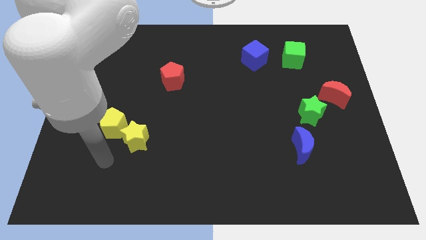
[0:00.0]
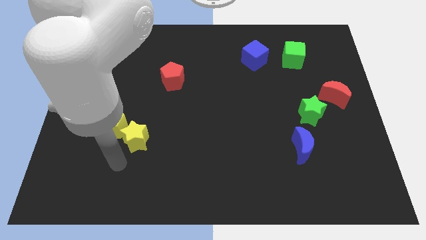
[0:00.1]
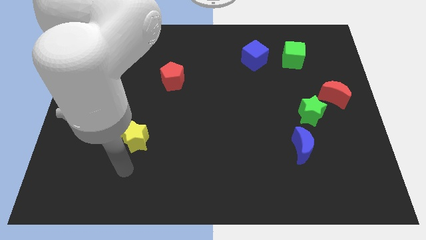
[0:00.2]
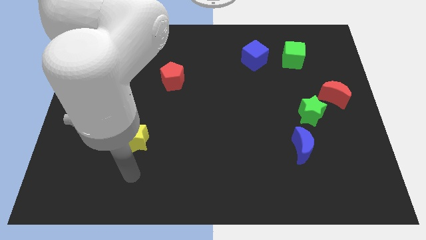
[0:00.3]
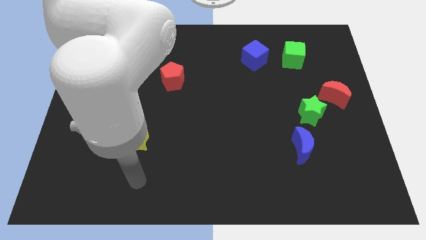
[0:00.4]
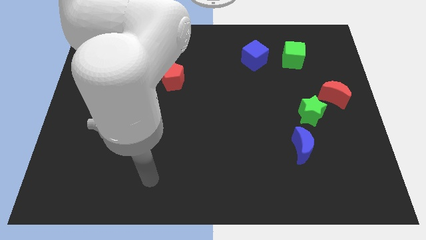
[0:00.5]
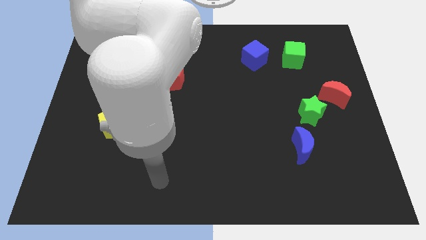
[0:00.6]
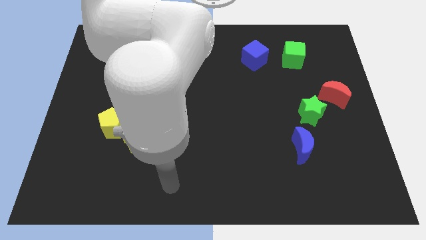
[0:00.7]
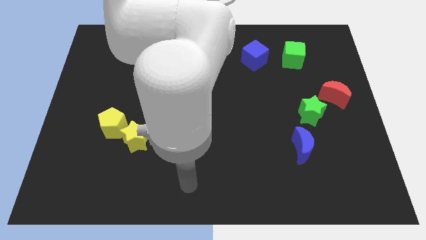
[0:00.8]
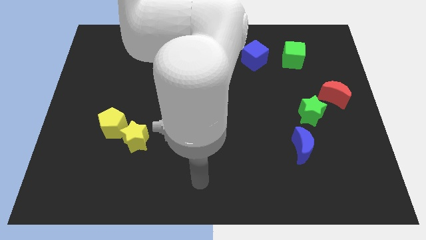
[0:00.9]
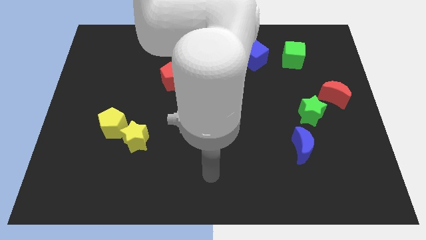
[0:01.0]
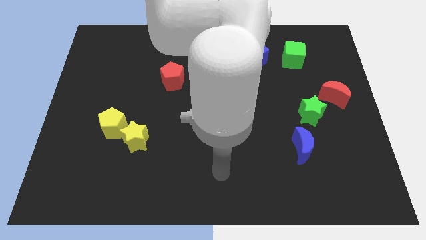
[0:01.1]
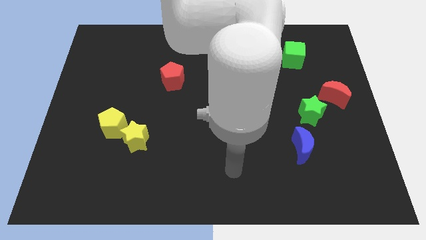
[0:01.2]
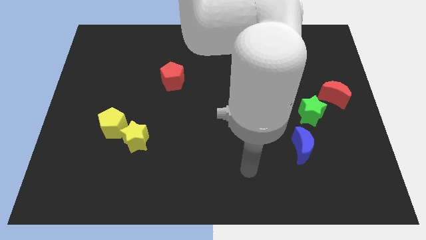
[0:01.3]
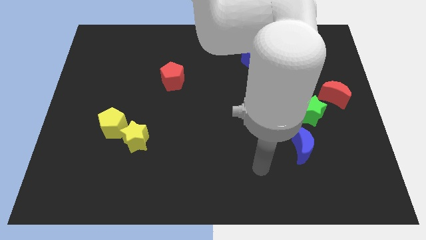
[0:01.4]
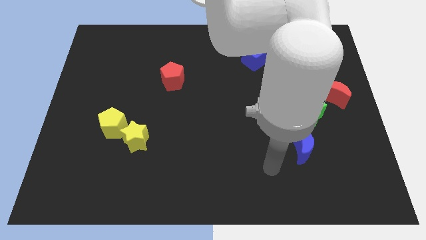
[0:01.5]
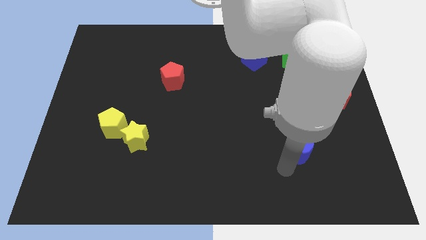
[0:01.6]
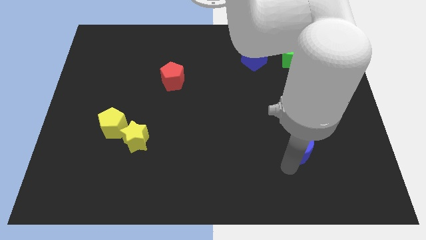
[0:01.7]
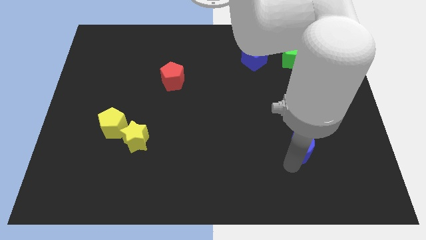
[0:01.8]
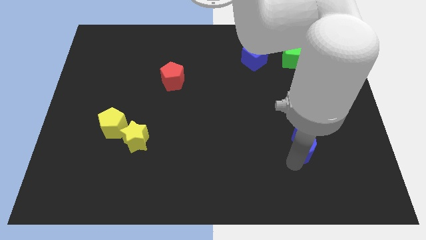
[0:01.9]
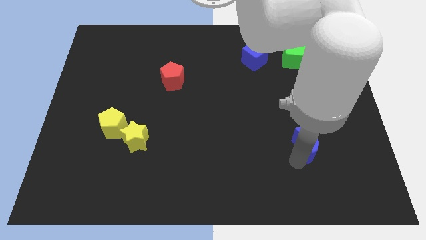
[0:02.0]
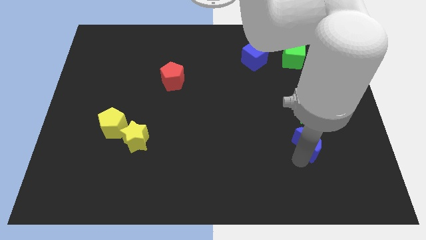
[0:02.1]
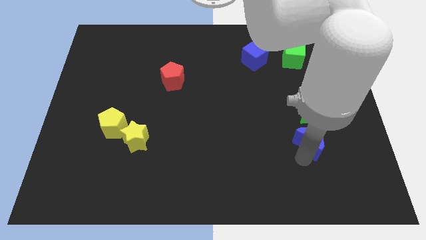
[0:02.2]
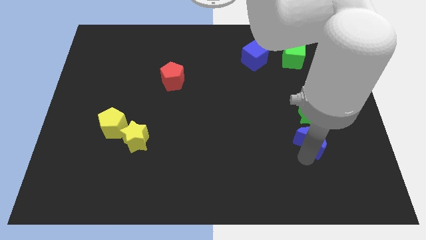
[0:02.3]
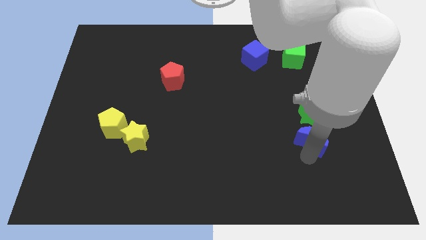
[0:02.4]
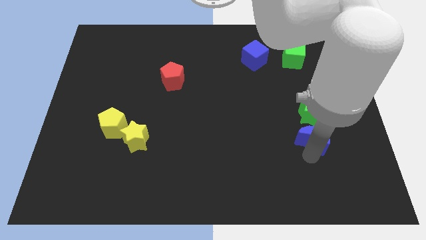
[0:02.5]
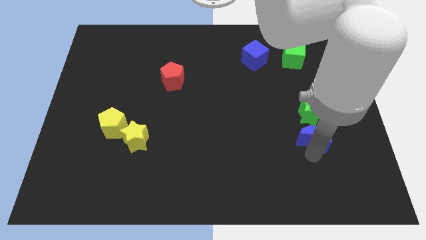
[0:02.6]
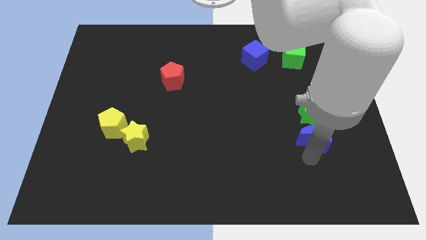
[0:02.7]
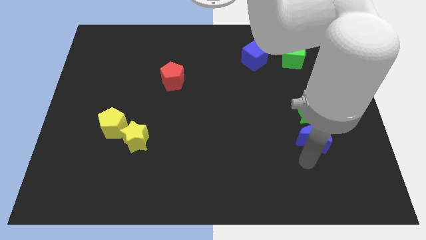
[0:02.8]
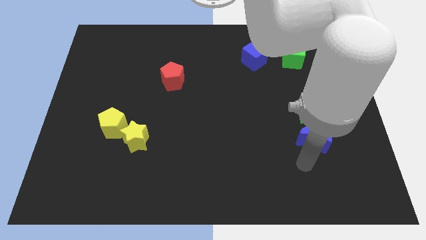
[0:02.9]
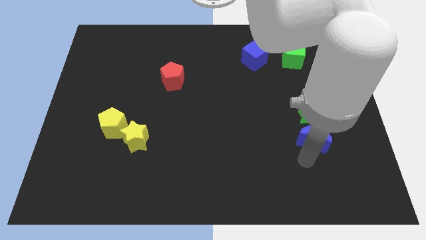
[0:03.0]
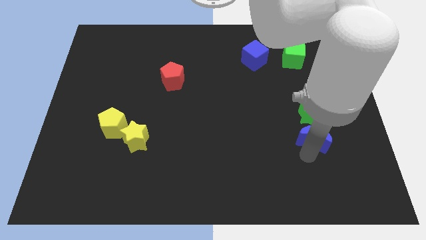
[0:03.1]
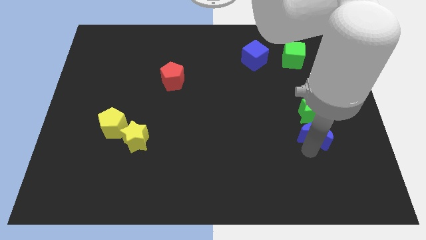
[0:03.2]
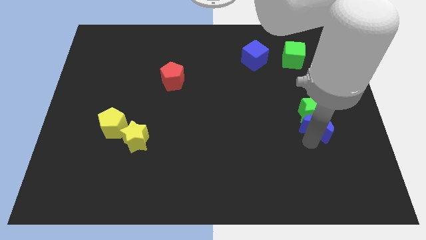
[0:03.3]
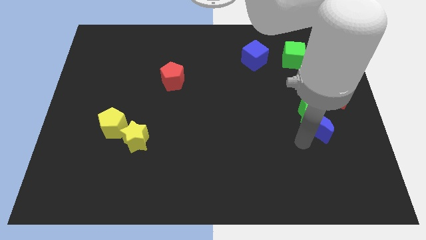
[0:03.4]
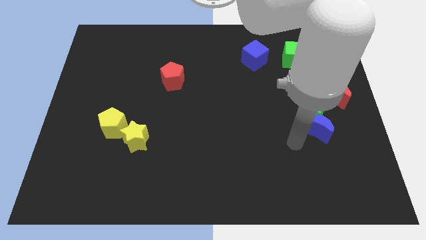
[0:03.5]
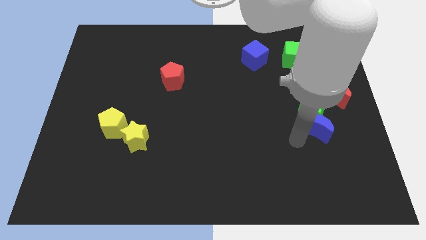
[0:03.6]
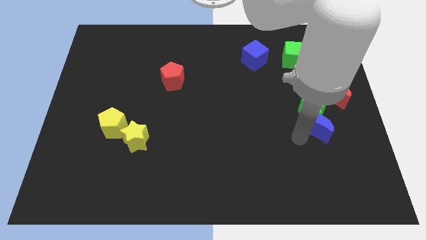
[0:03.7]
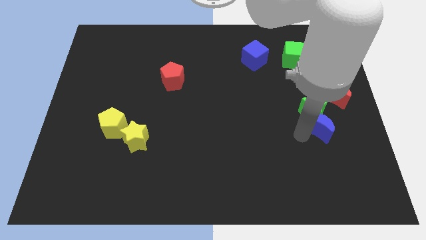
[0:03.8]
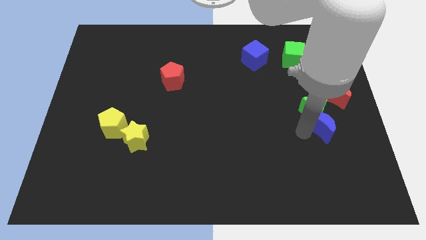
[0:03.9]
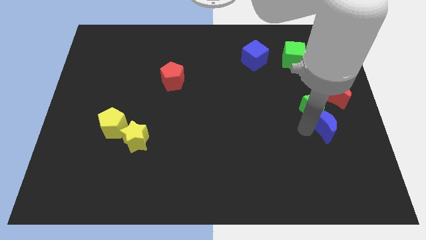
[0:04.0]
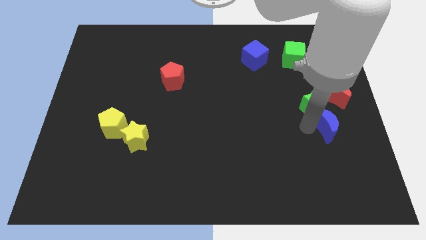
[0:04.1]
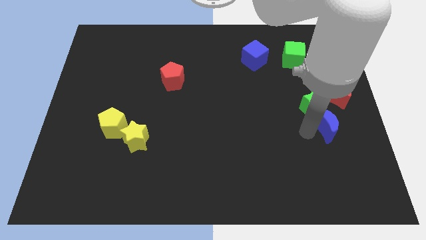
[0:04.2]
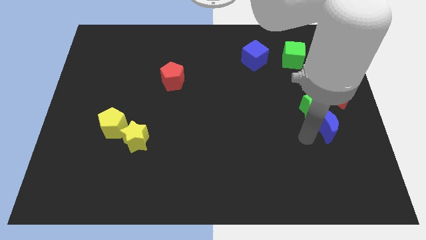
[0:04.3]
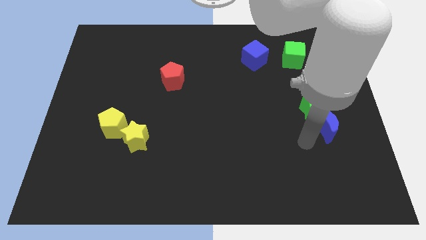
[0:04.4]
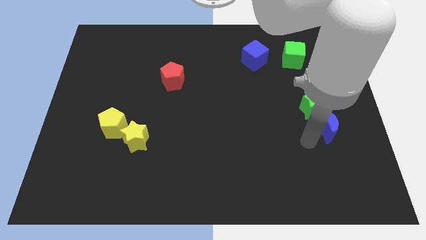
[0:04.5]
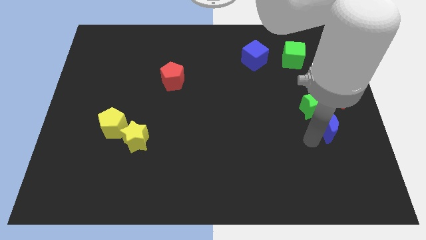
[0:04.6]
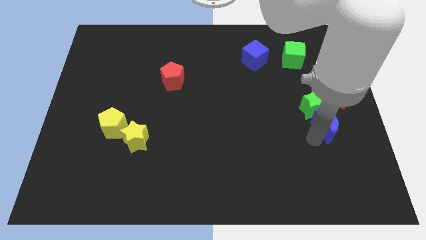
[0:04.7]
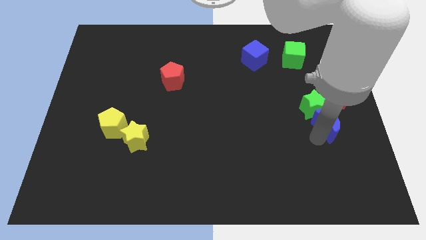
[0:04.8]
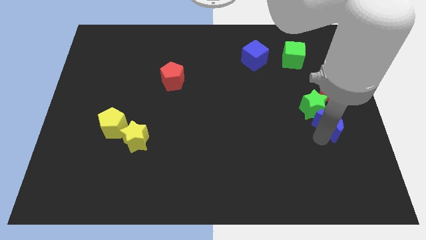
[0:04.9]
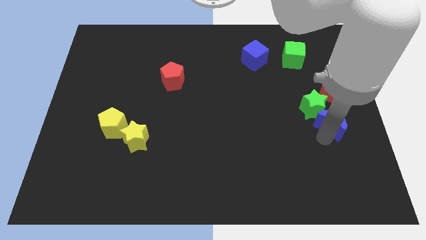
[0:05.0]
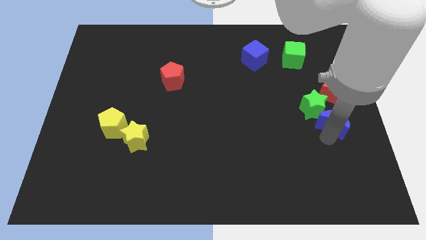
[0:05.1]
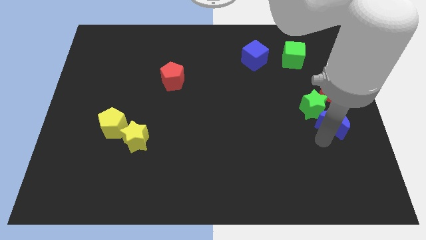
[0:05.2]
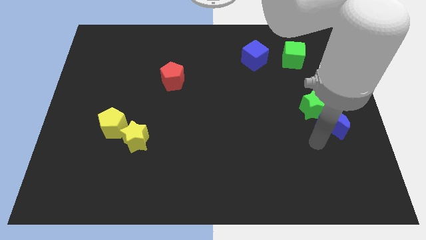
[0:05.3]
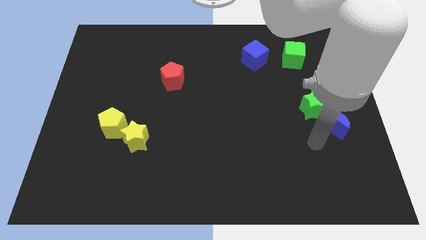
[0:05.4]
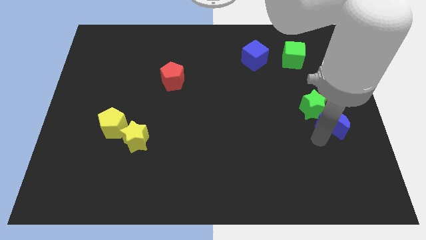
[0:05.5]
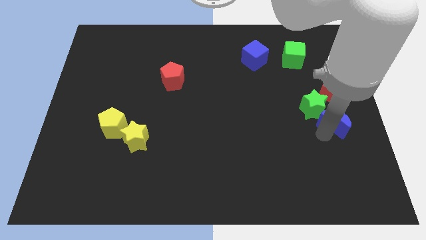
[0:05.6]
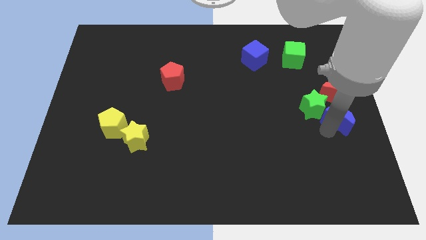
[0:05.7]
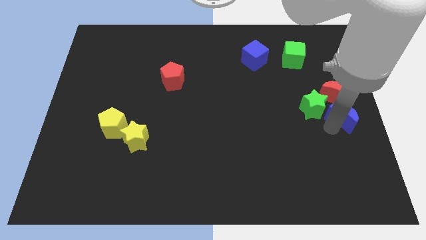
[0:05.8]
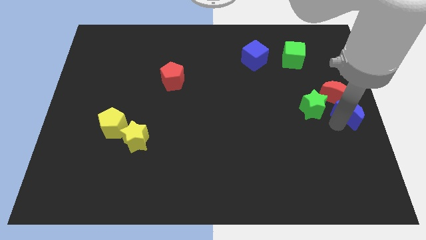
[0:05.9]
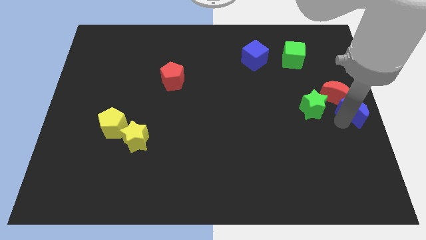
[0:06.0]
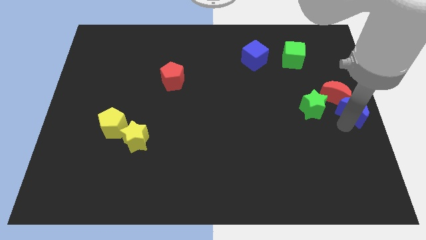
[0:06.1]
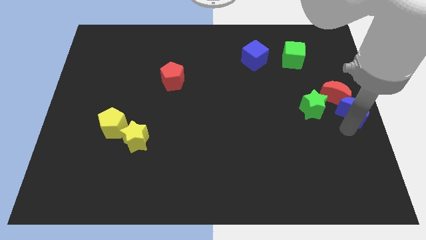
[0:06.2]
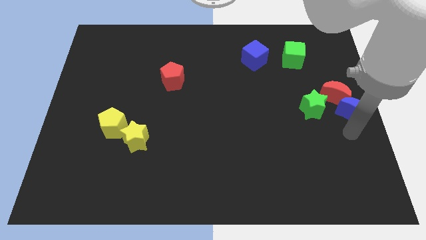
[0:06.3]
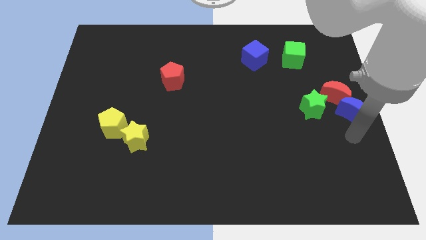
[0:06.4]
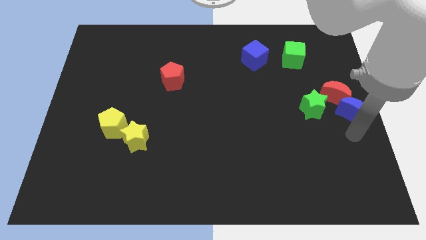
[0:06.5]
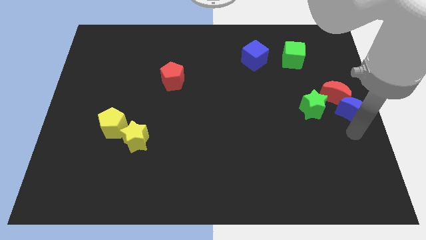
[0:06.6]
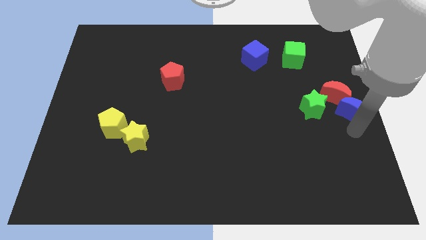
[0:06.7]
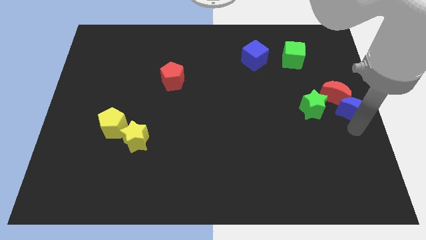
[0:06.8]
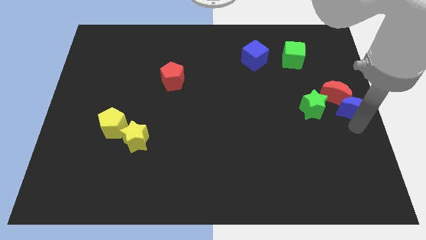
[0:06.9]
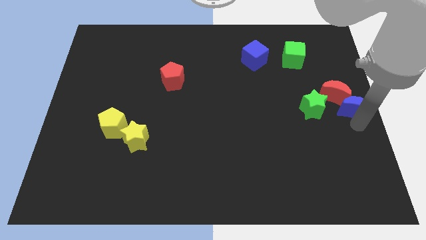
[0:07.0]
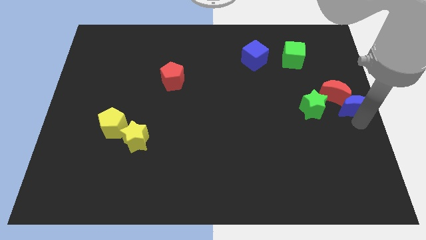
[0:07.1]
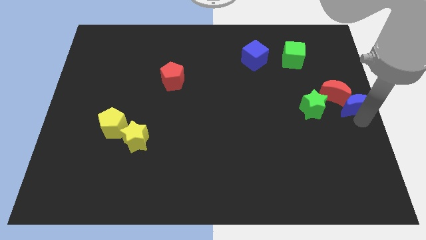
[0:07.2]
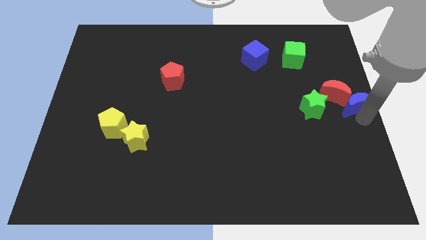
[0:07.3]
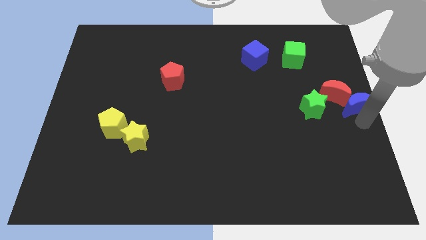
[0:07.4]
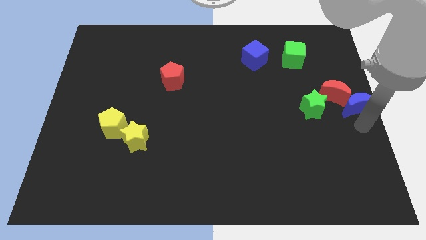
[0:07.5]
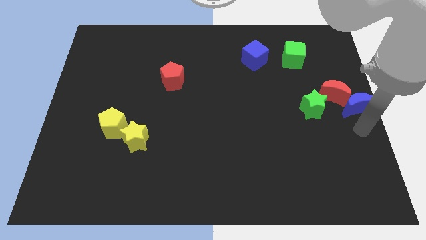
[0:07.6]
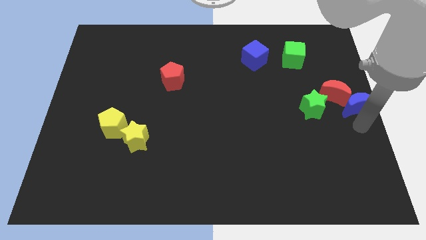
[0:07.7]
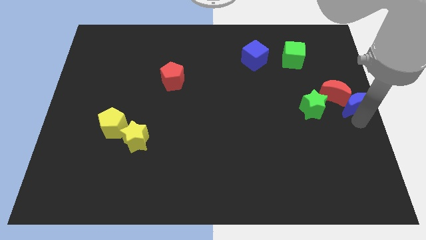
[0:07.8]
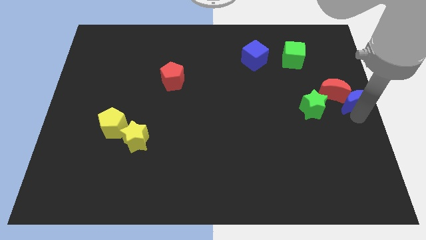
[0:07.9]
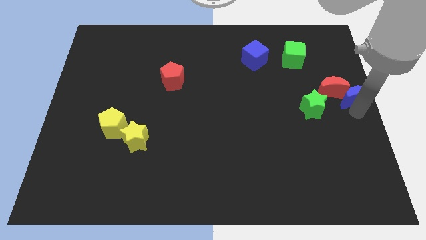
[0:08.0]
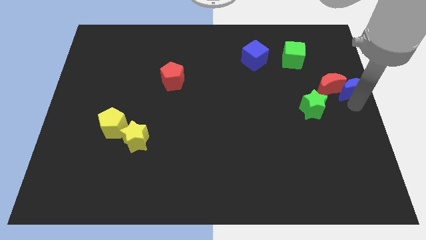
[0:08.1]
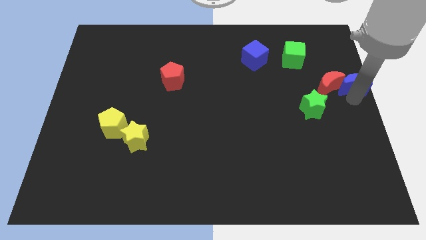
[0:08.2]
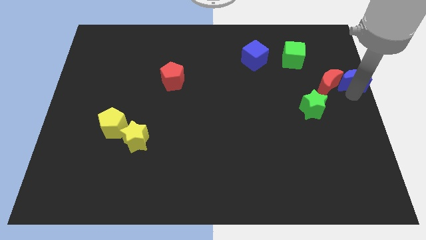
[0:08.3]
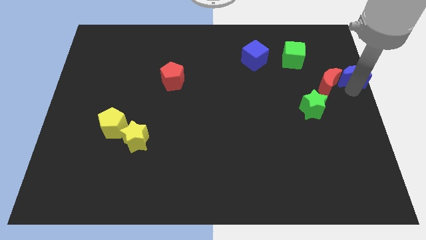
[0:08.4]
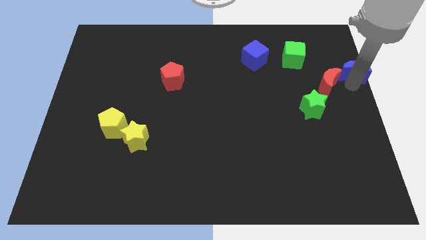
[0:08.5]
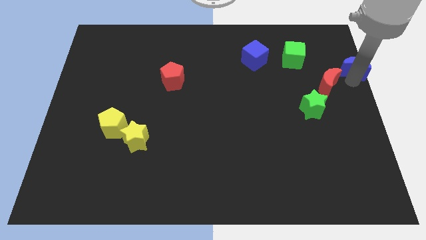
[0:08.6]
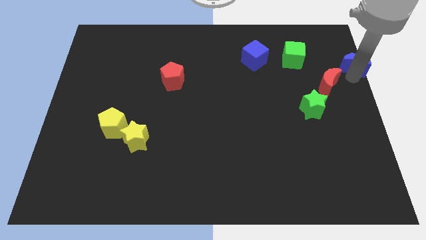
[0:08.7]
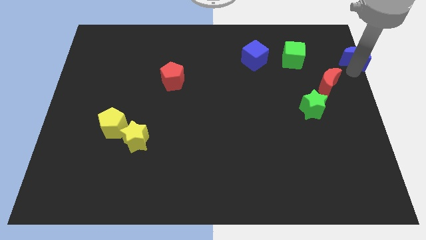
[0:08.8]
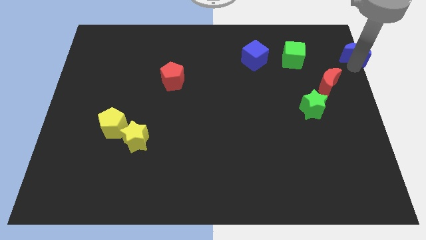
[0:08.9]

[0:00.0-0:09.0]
slide the blue moon to the top right corner
